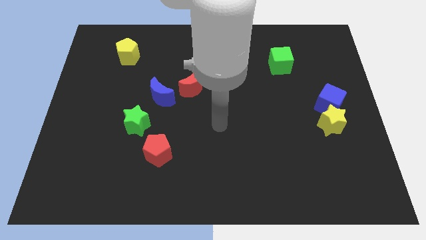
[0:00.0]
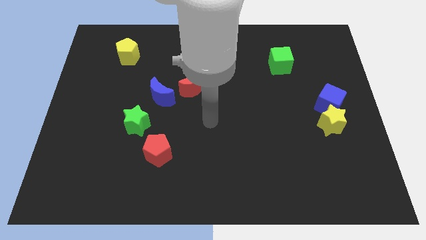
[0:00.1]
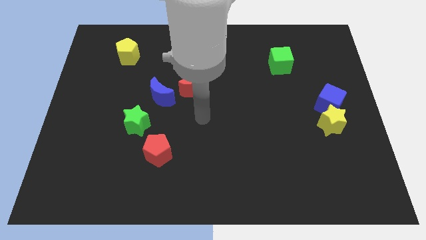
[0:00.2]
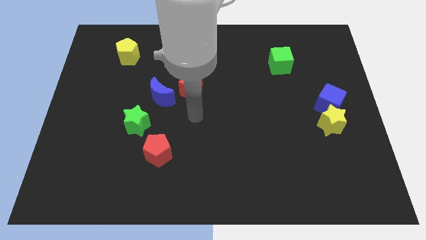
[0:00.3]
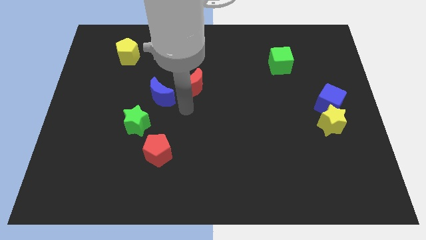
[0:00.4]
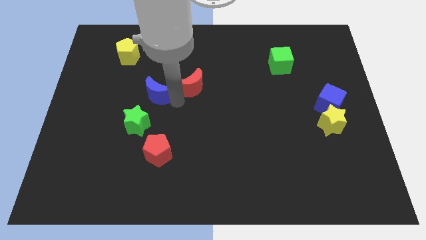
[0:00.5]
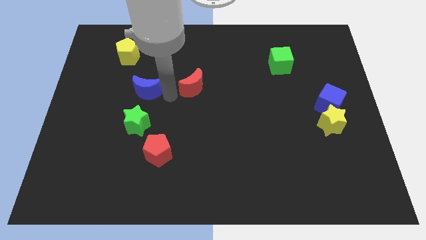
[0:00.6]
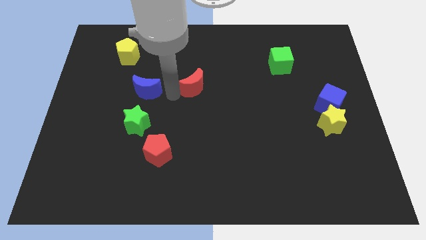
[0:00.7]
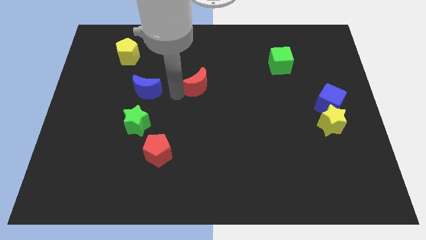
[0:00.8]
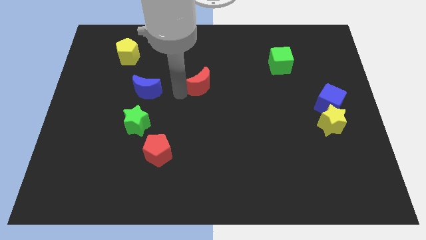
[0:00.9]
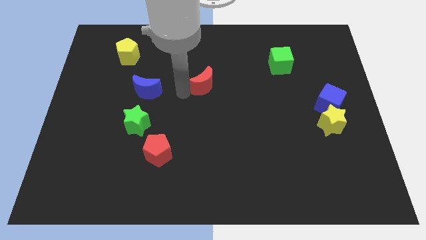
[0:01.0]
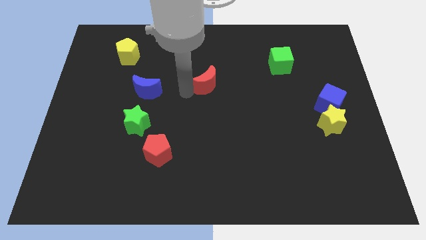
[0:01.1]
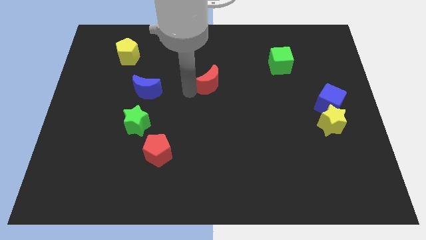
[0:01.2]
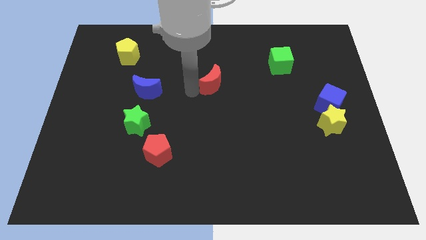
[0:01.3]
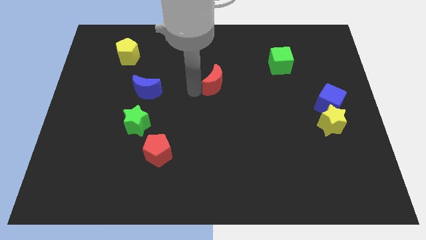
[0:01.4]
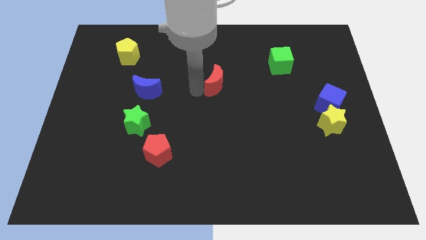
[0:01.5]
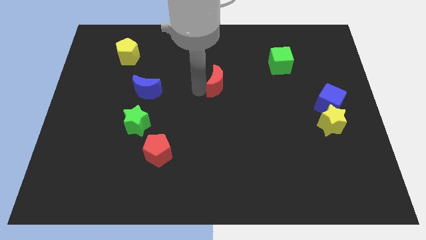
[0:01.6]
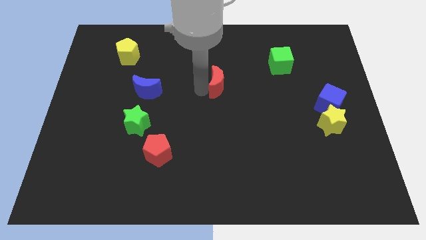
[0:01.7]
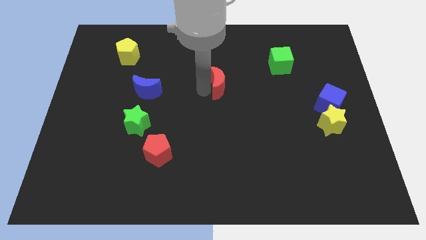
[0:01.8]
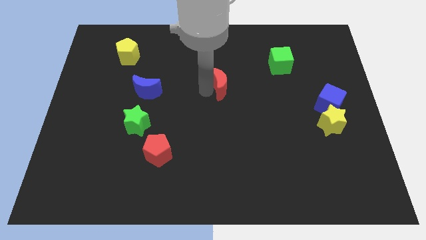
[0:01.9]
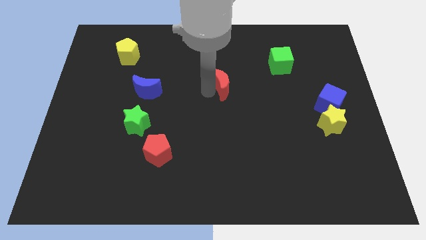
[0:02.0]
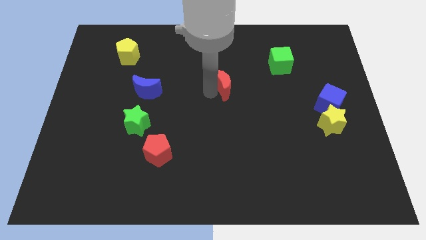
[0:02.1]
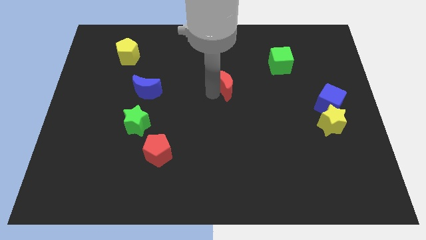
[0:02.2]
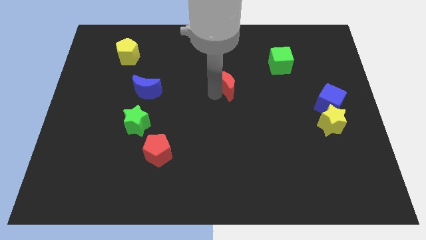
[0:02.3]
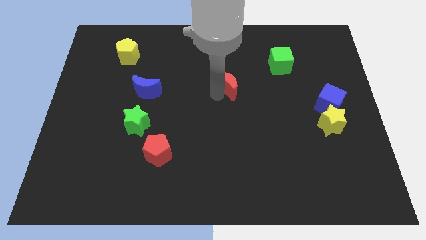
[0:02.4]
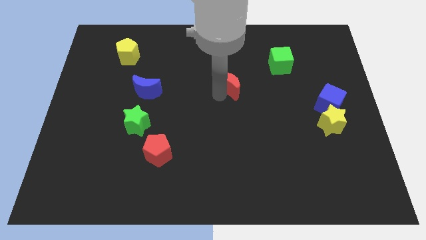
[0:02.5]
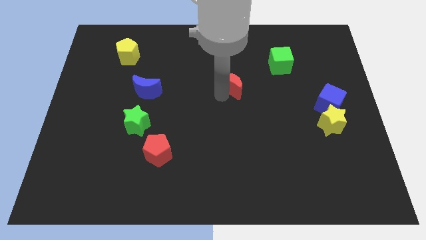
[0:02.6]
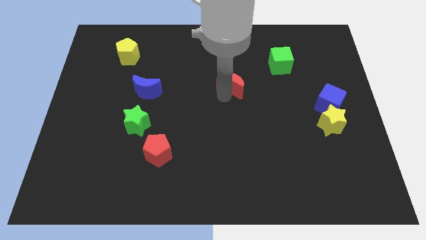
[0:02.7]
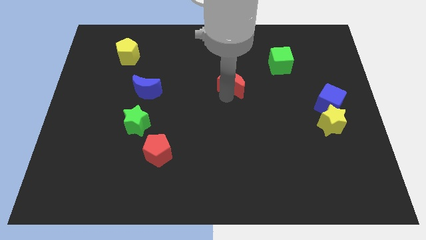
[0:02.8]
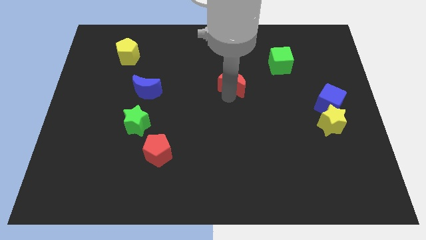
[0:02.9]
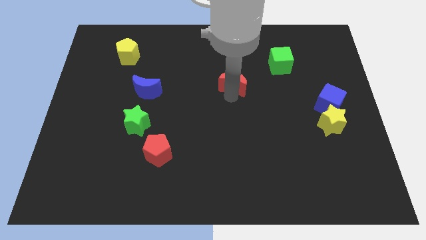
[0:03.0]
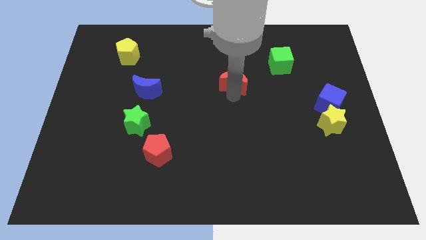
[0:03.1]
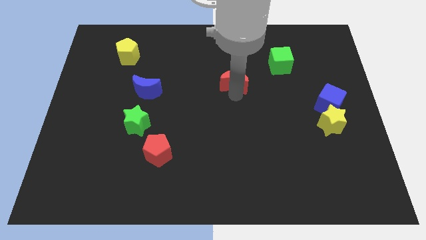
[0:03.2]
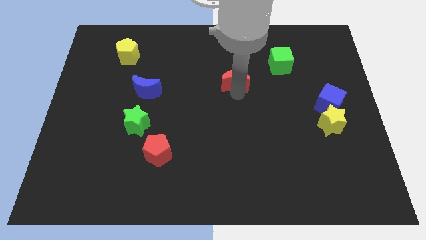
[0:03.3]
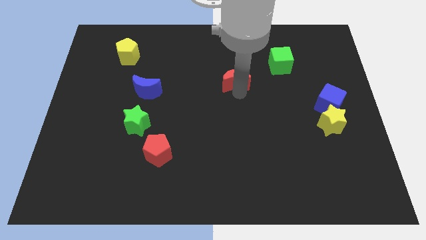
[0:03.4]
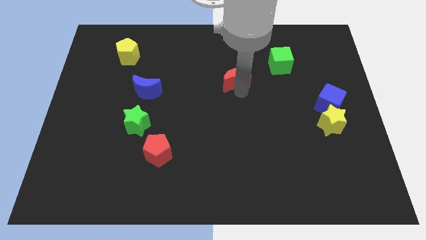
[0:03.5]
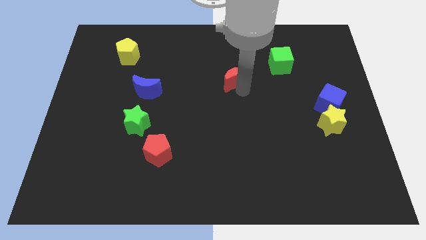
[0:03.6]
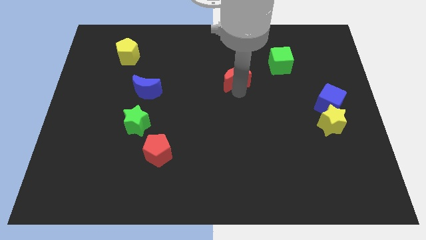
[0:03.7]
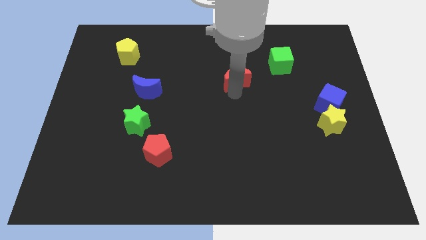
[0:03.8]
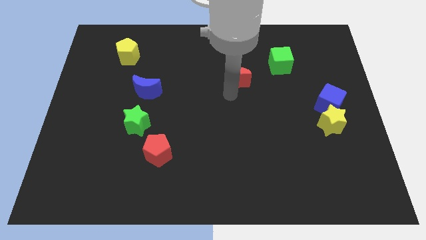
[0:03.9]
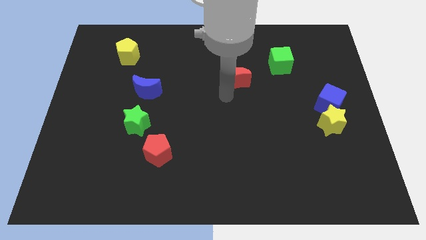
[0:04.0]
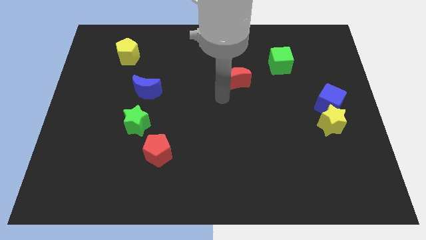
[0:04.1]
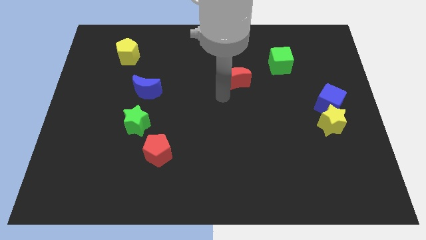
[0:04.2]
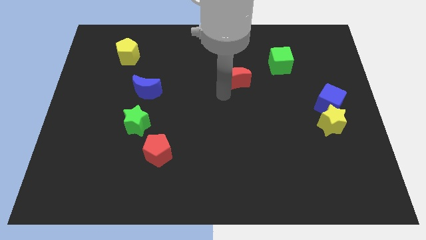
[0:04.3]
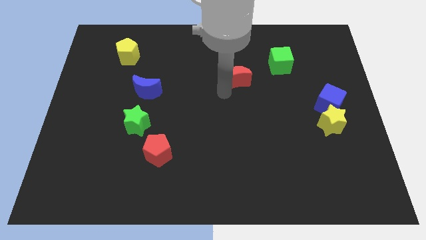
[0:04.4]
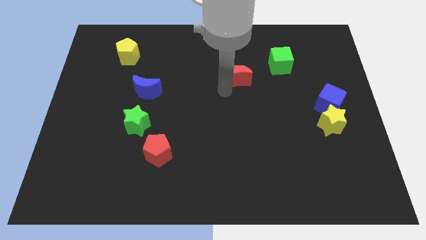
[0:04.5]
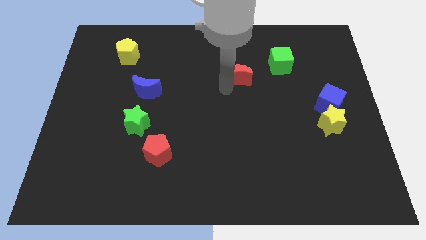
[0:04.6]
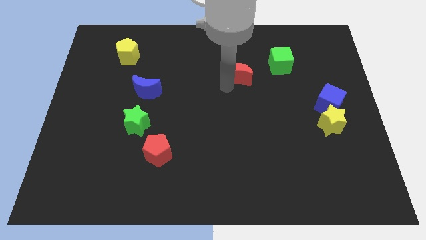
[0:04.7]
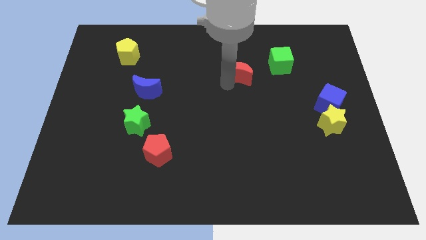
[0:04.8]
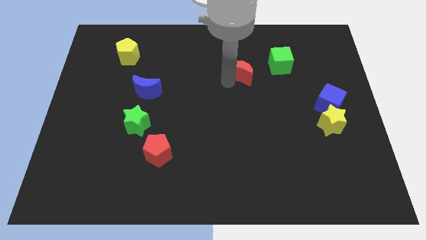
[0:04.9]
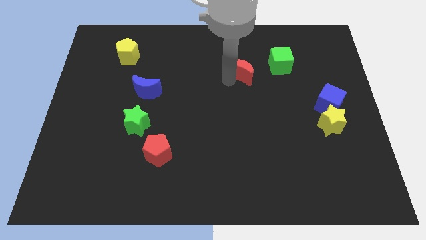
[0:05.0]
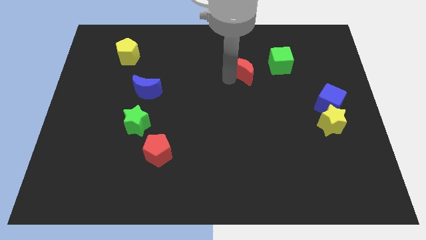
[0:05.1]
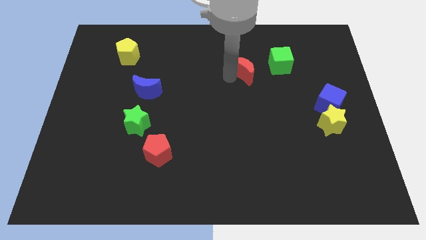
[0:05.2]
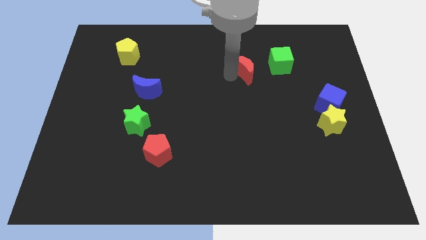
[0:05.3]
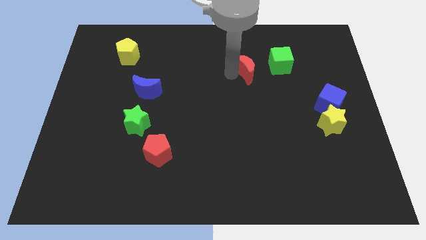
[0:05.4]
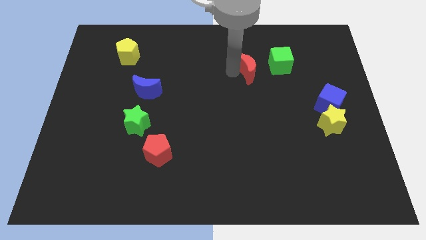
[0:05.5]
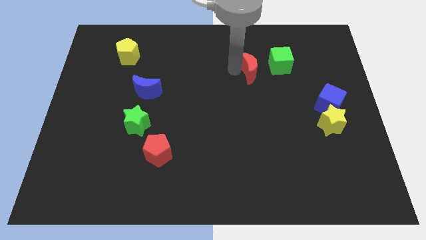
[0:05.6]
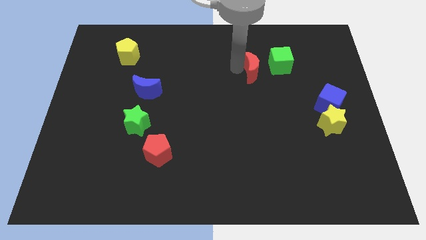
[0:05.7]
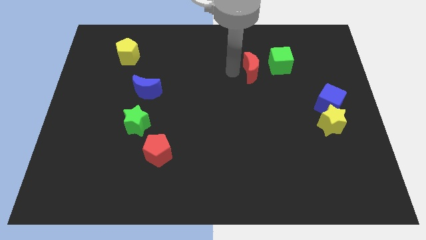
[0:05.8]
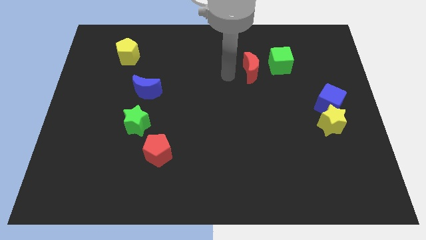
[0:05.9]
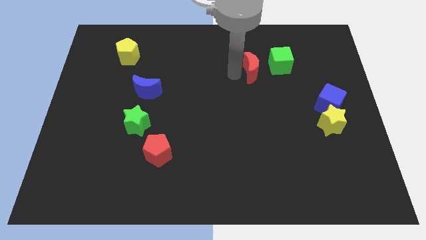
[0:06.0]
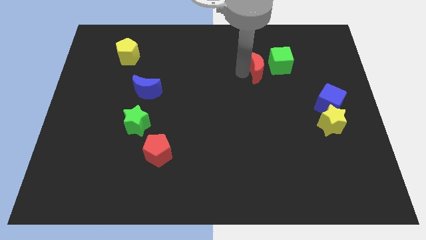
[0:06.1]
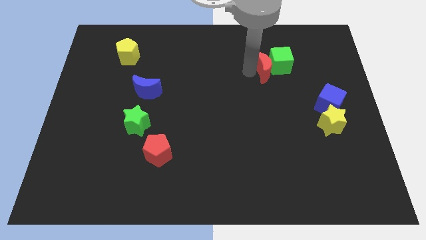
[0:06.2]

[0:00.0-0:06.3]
put the red moon towards the green cube
